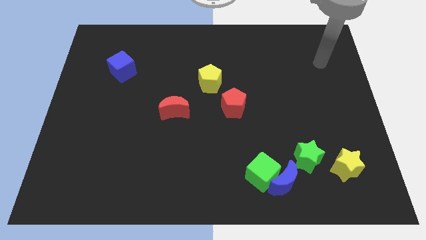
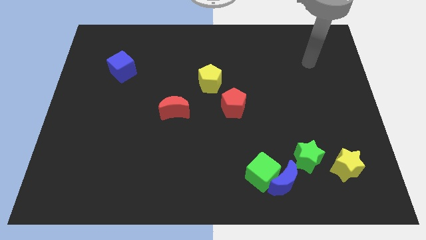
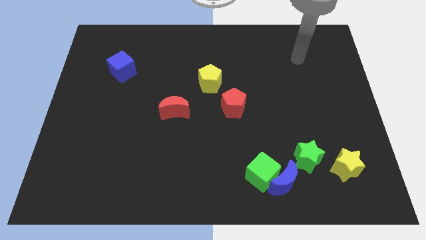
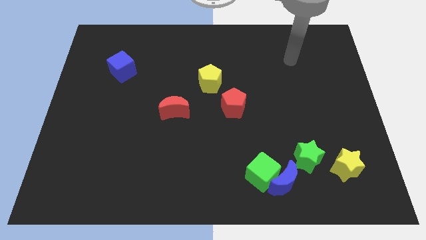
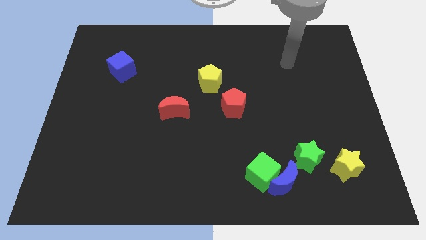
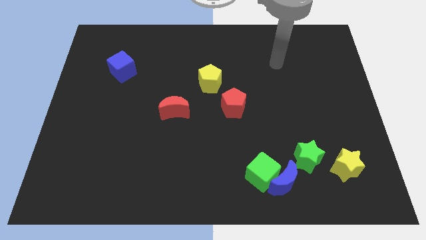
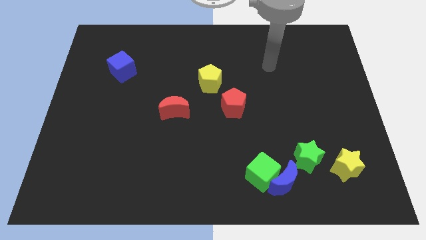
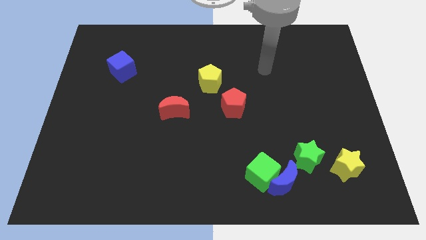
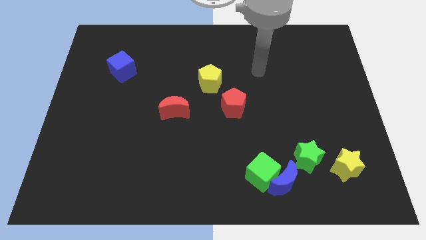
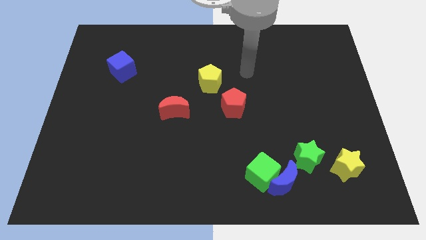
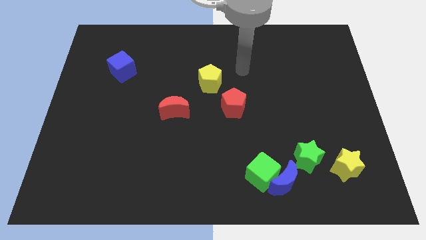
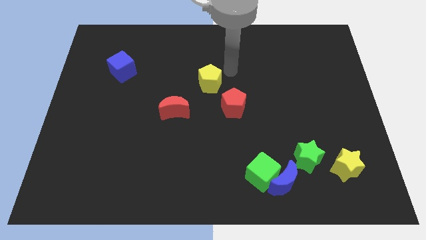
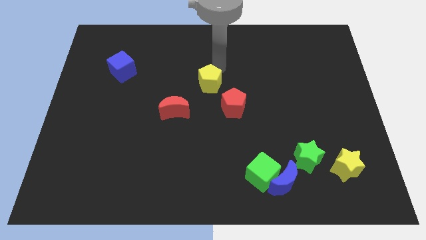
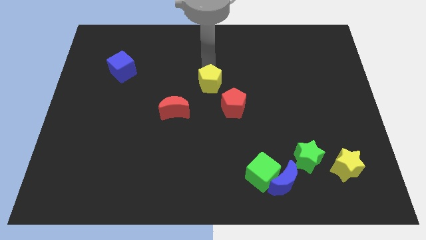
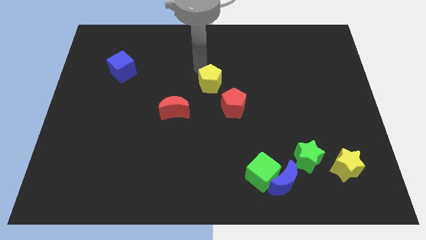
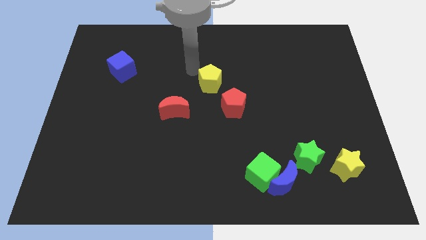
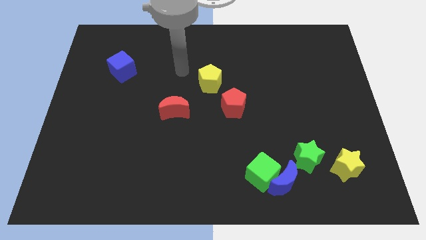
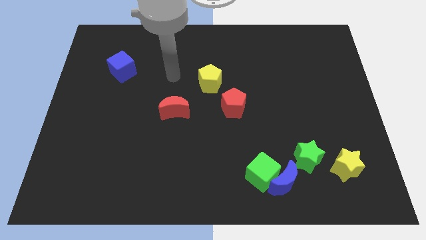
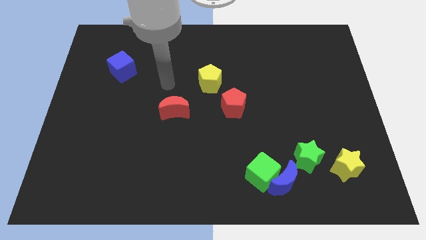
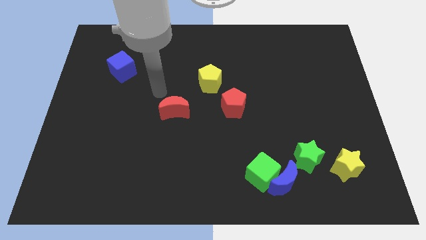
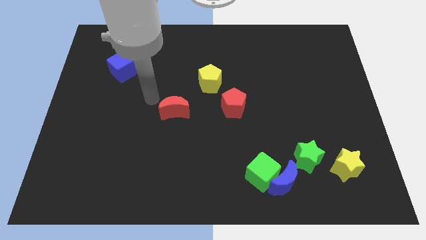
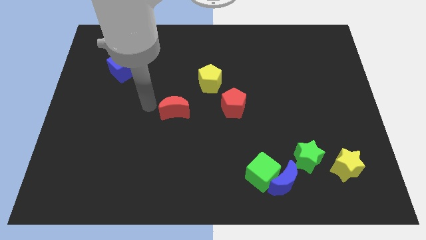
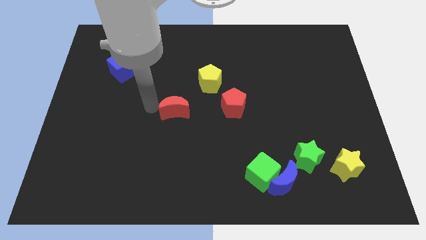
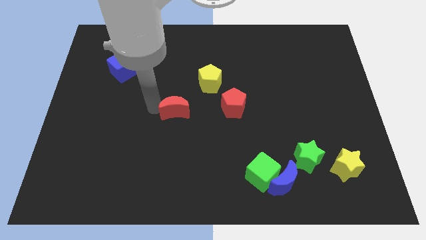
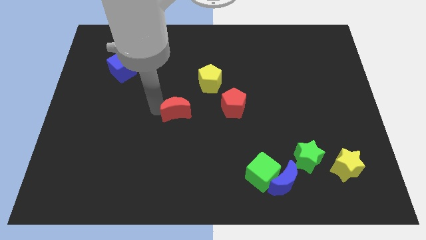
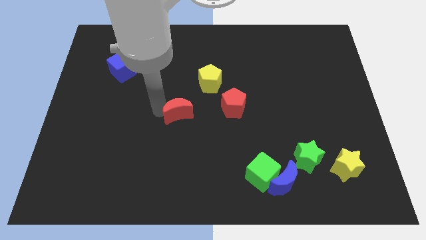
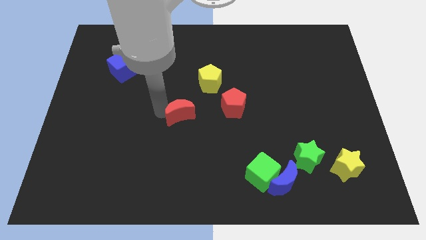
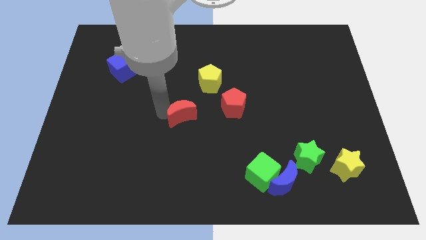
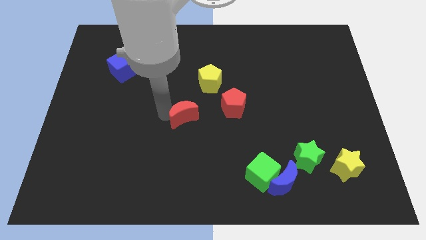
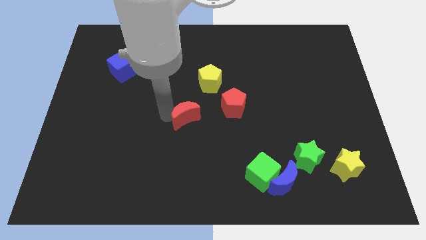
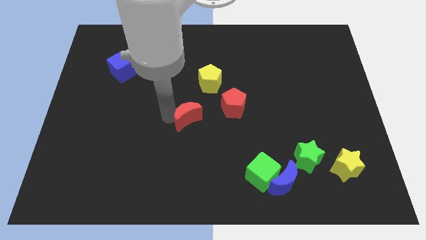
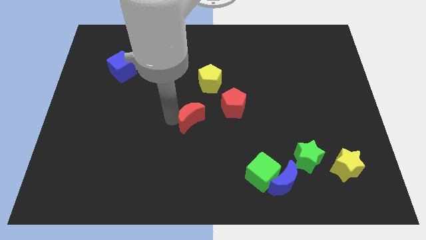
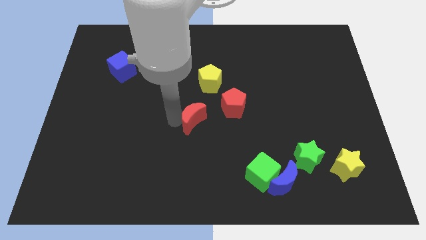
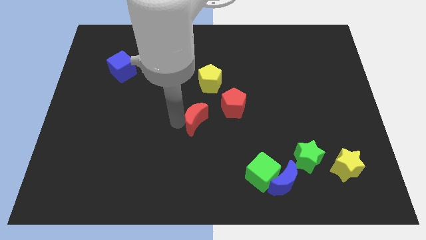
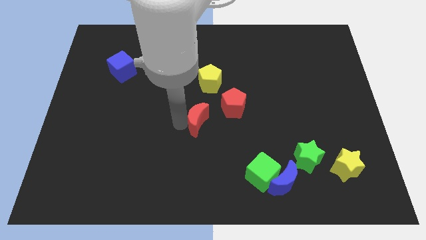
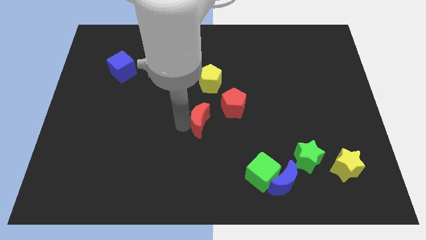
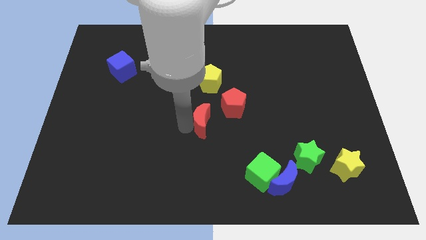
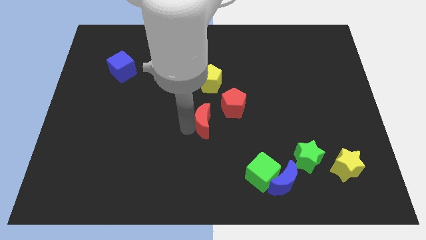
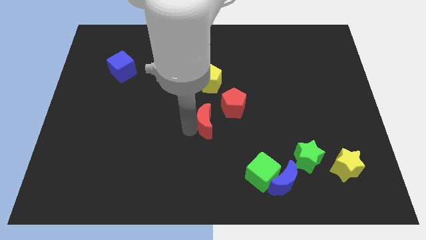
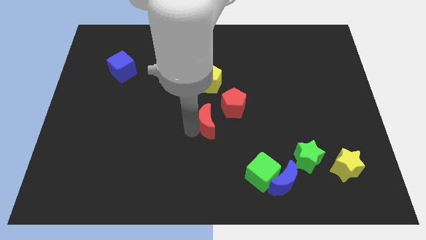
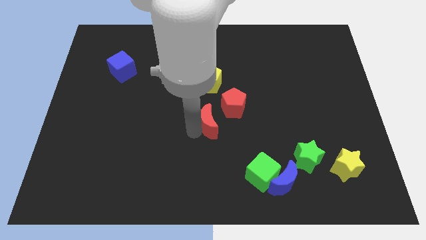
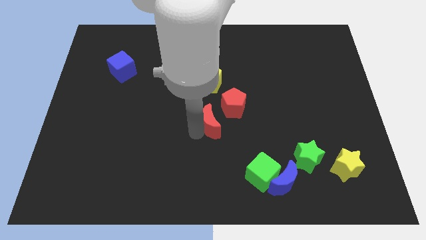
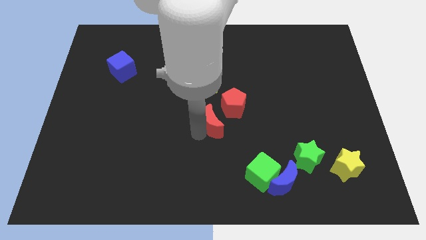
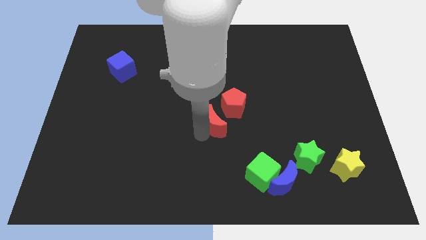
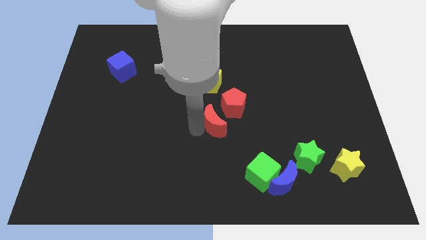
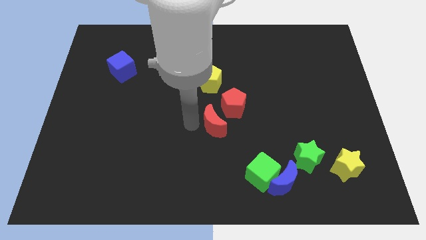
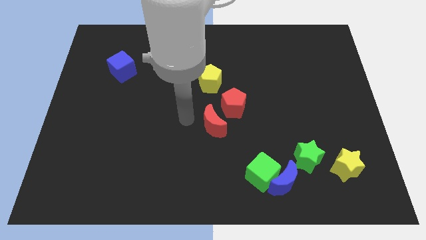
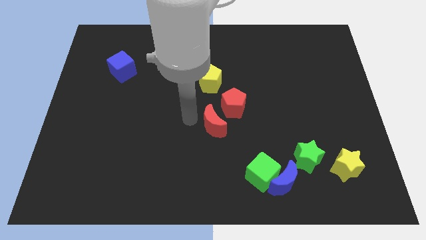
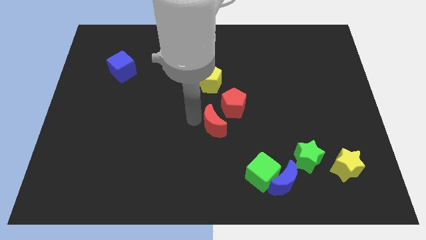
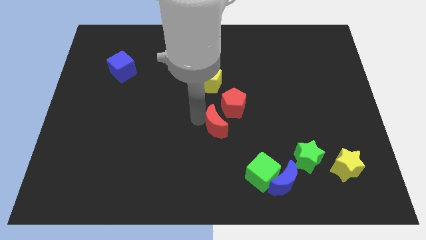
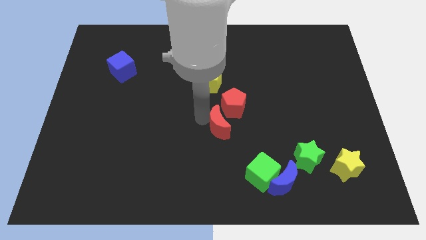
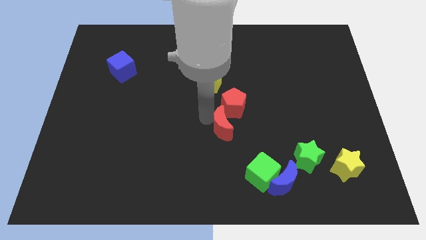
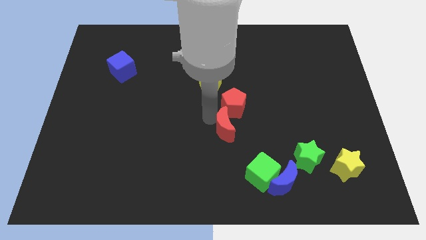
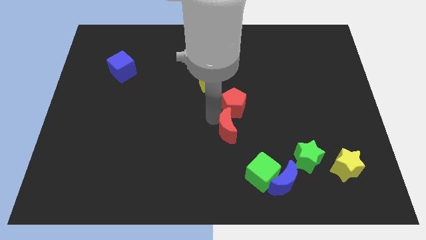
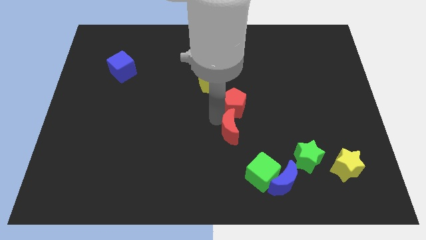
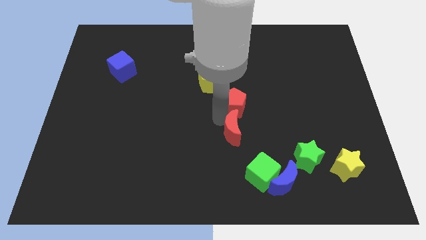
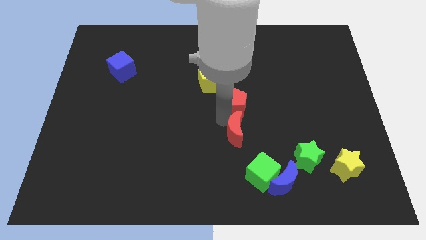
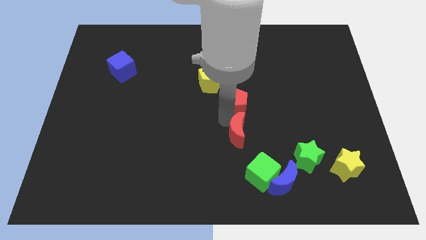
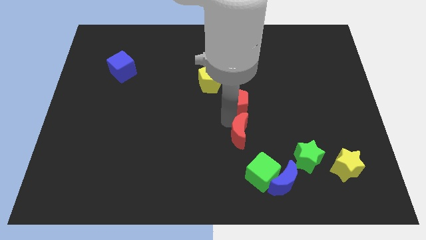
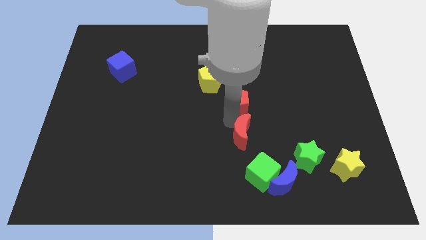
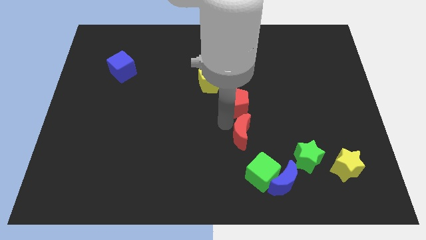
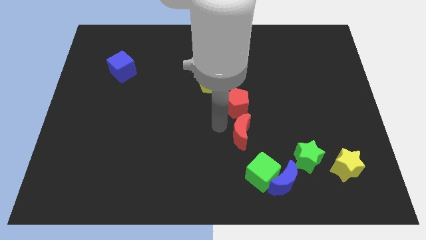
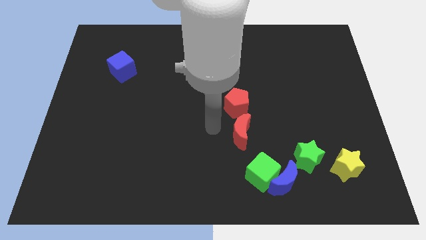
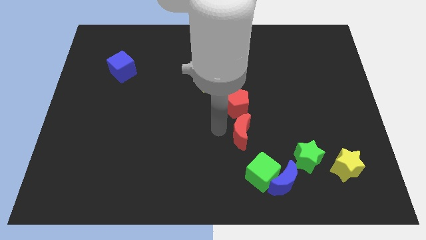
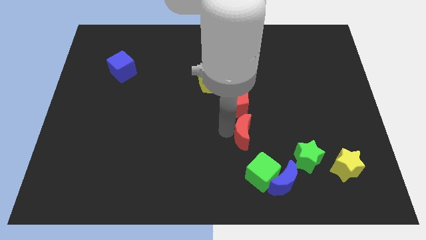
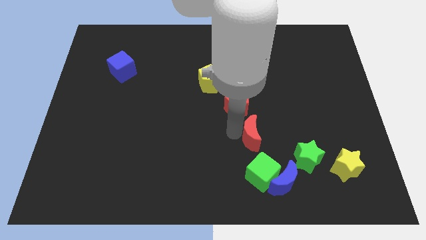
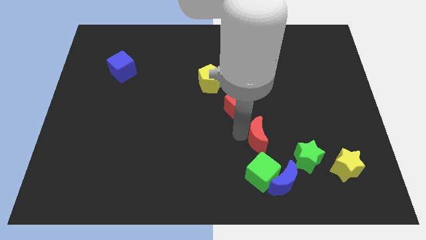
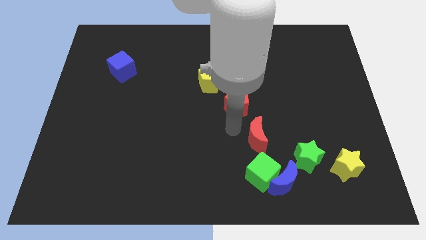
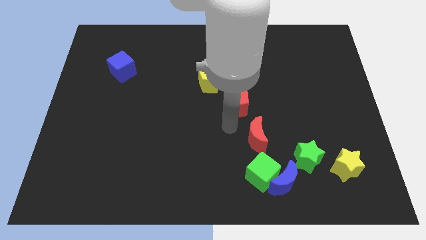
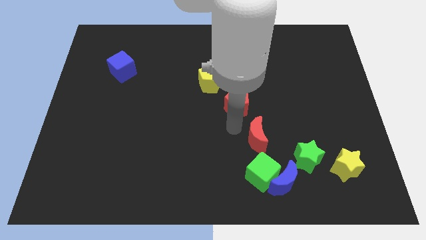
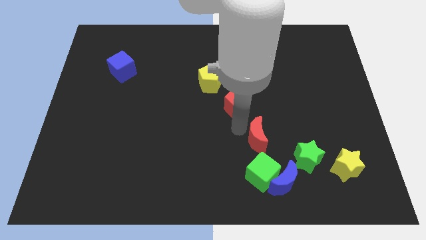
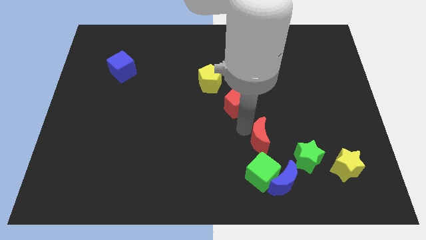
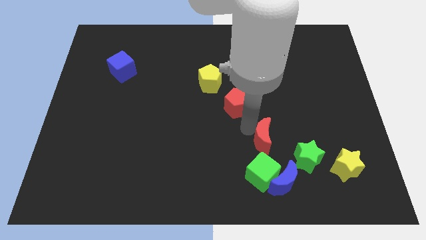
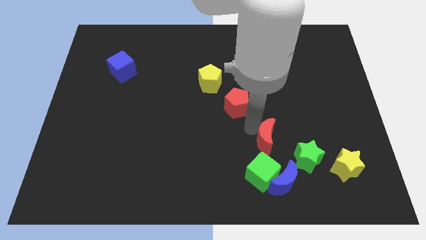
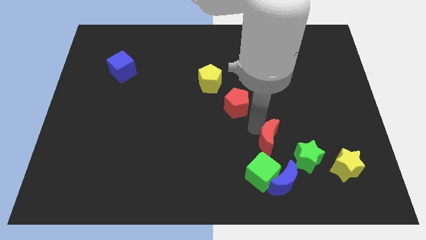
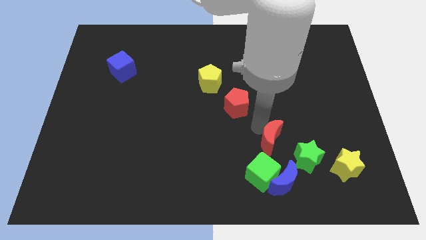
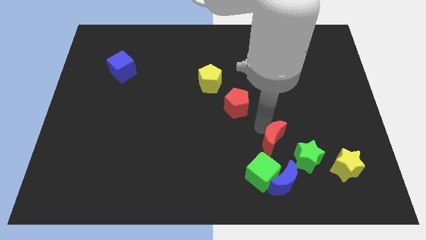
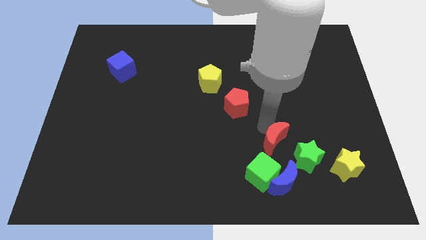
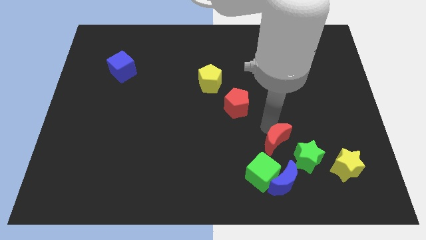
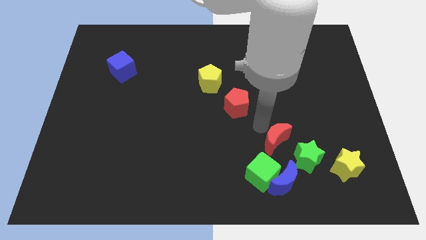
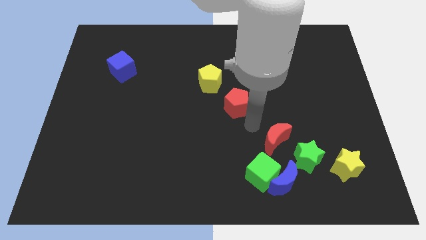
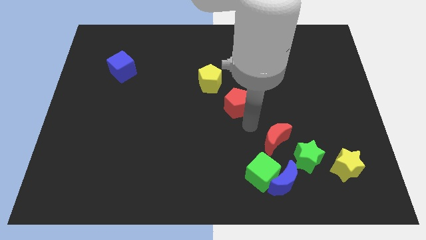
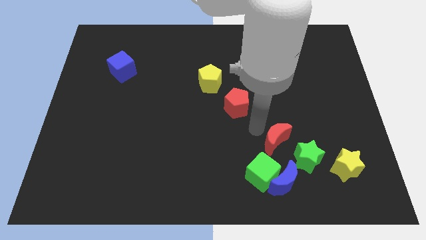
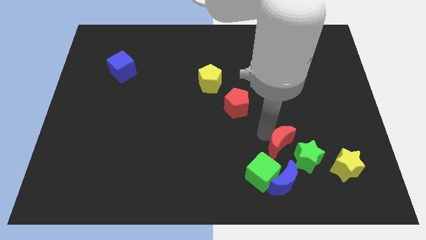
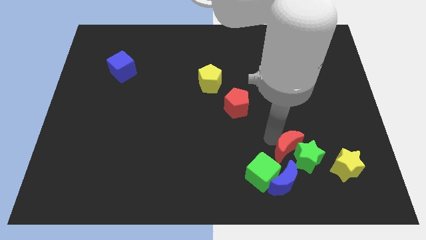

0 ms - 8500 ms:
slide the red moon towards the green star
